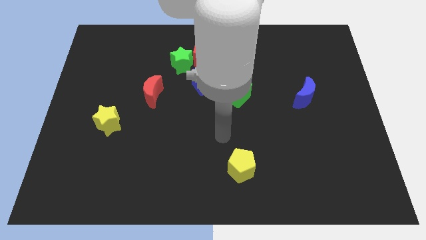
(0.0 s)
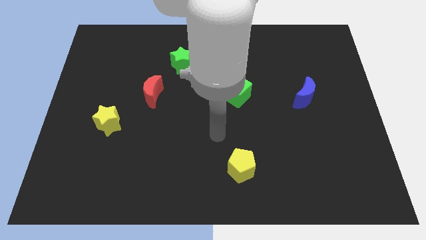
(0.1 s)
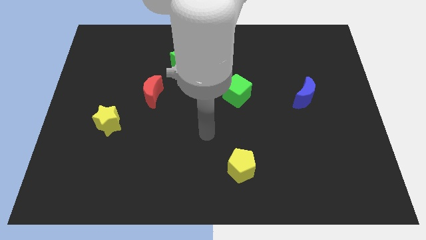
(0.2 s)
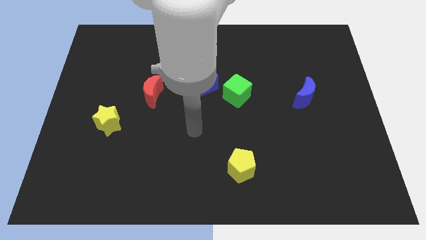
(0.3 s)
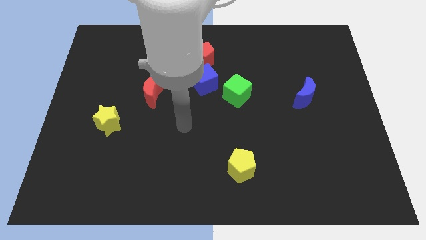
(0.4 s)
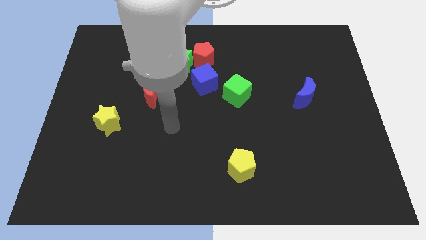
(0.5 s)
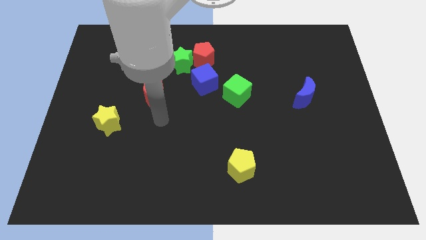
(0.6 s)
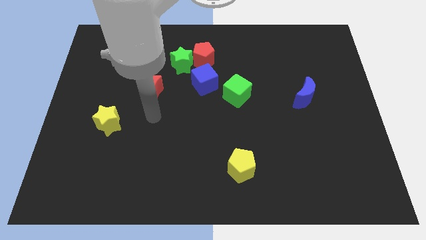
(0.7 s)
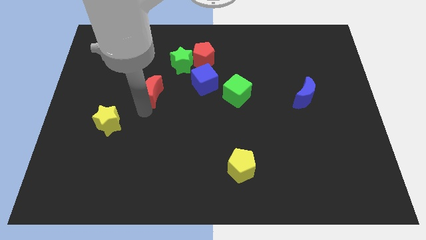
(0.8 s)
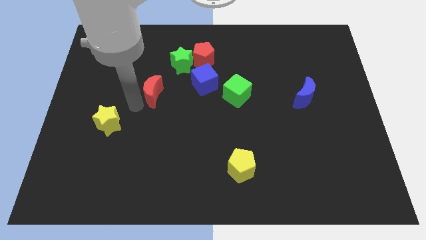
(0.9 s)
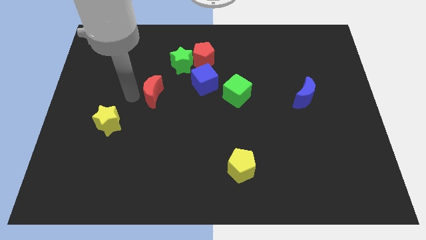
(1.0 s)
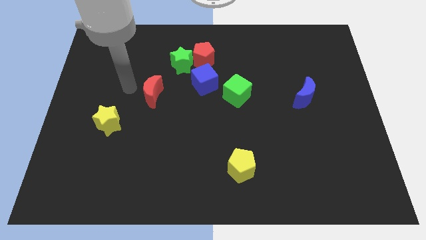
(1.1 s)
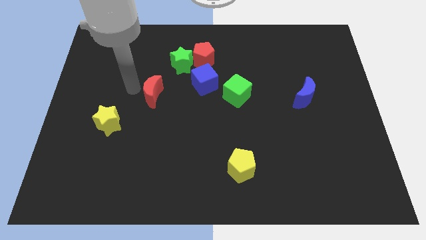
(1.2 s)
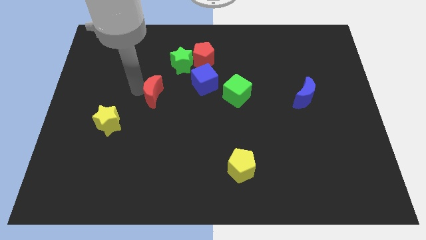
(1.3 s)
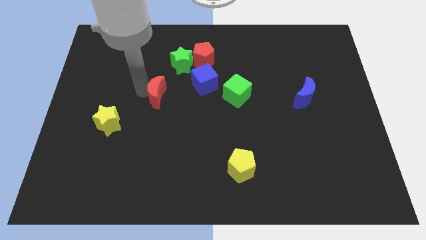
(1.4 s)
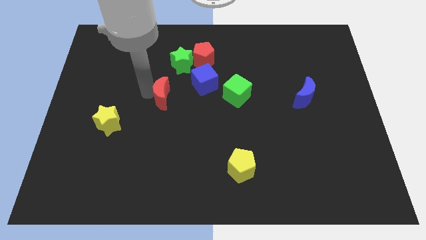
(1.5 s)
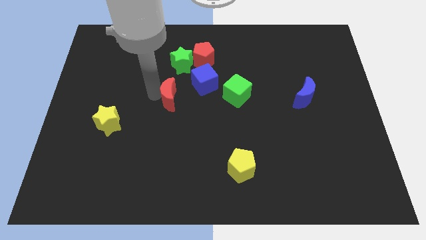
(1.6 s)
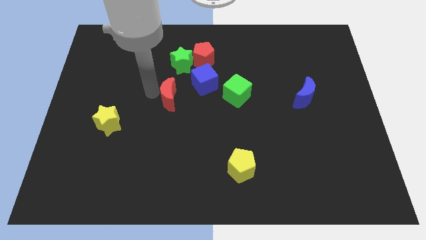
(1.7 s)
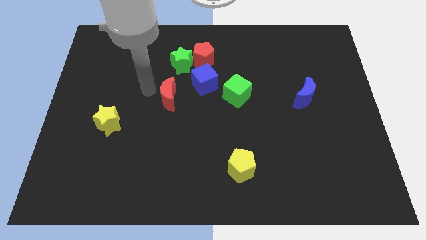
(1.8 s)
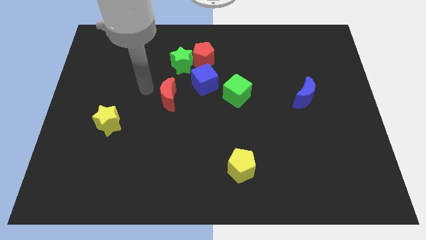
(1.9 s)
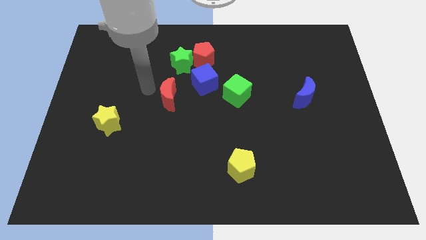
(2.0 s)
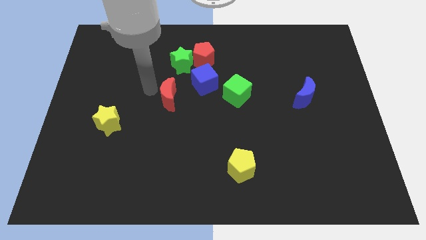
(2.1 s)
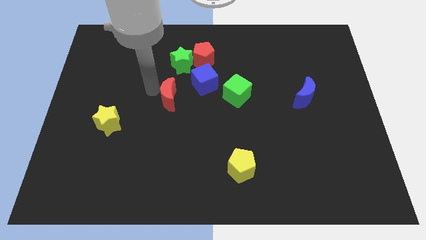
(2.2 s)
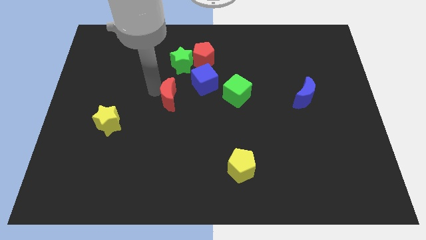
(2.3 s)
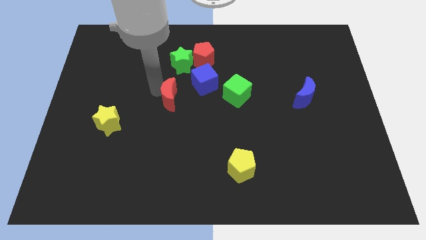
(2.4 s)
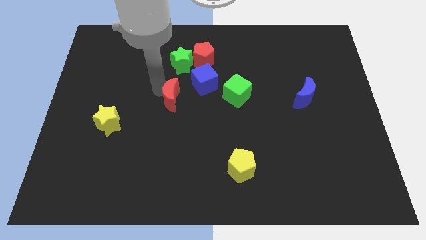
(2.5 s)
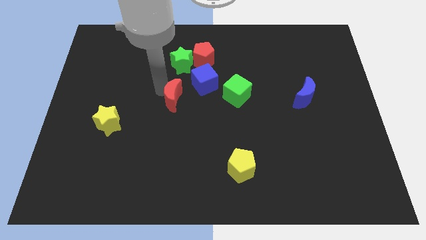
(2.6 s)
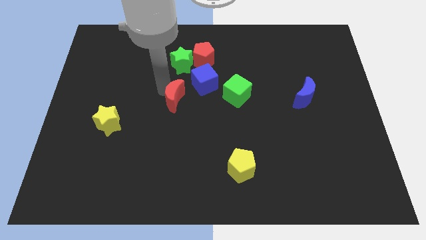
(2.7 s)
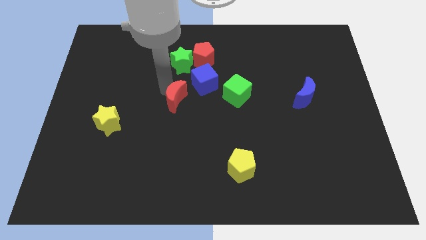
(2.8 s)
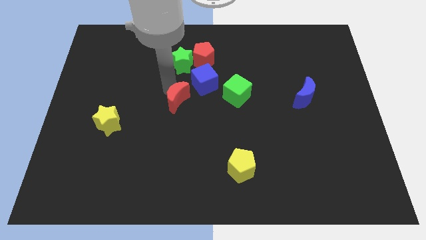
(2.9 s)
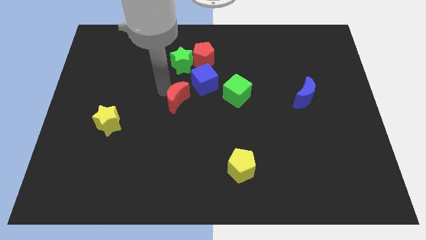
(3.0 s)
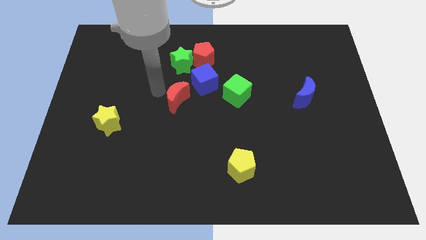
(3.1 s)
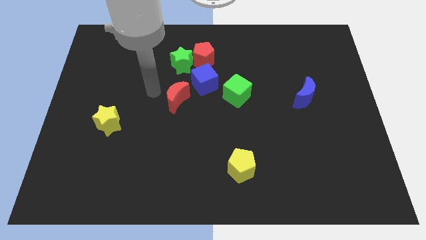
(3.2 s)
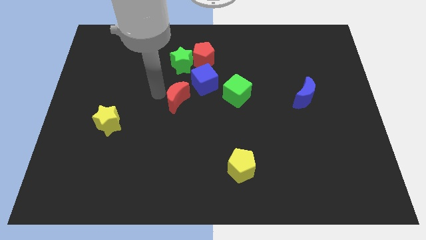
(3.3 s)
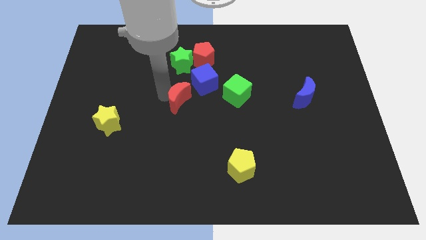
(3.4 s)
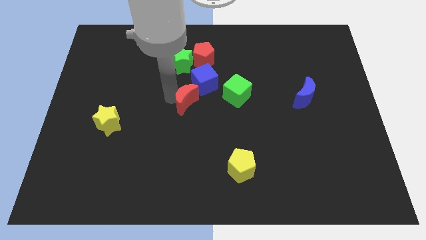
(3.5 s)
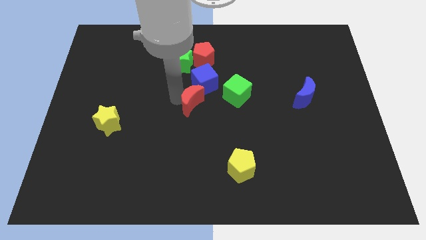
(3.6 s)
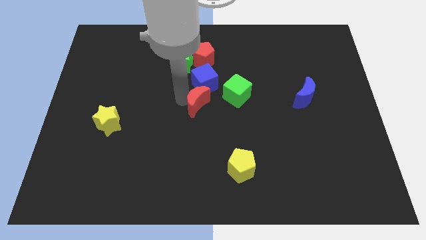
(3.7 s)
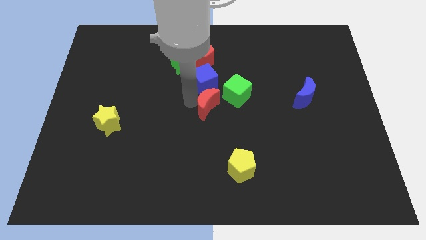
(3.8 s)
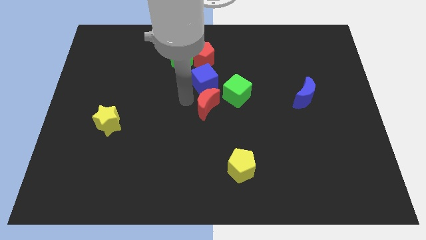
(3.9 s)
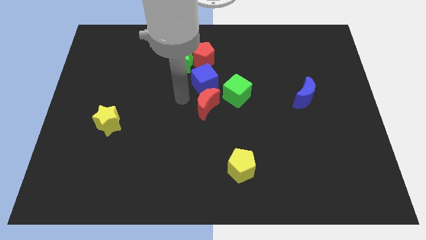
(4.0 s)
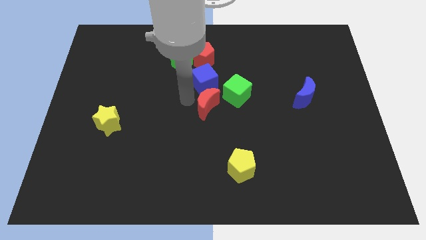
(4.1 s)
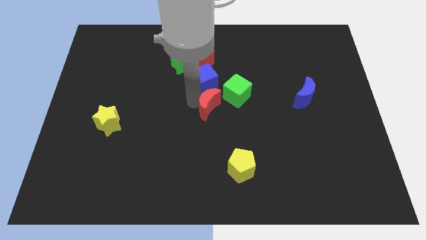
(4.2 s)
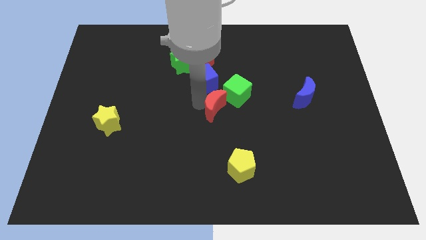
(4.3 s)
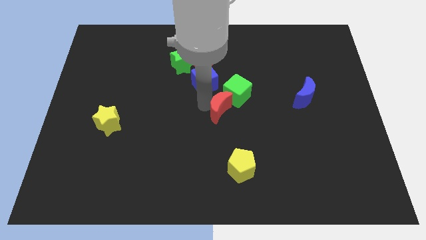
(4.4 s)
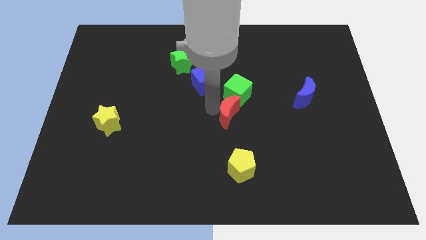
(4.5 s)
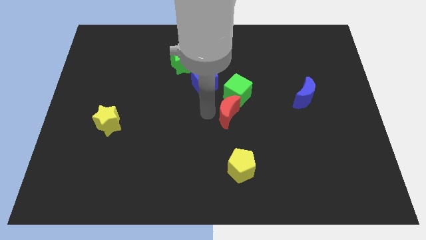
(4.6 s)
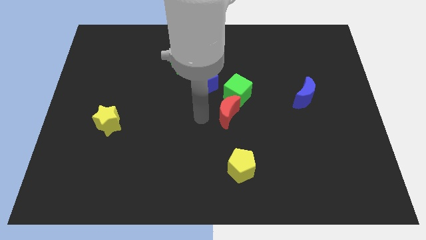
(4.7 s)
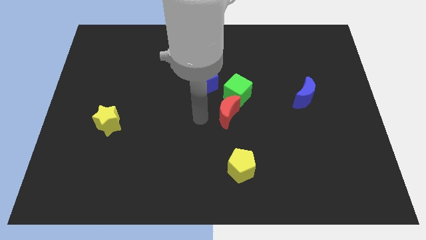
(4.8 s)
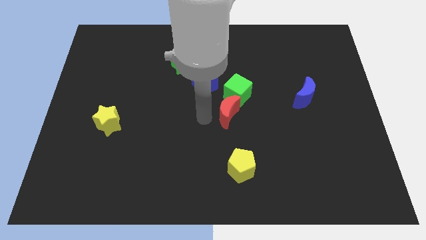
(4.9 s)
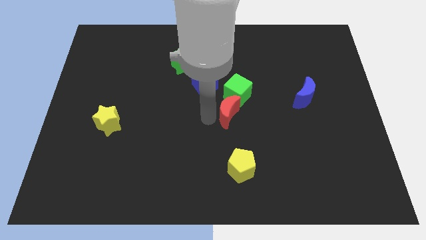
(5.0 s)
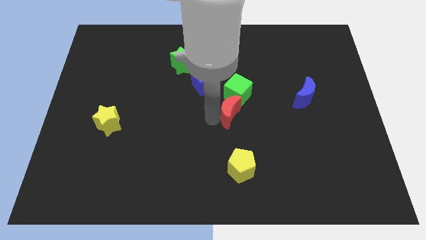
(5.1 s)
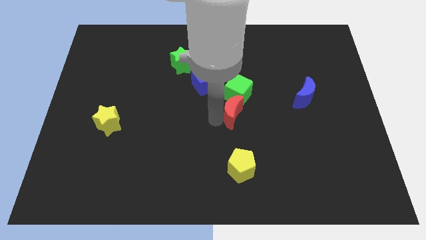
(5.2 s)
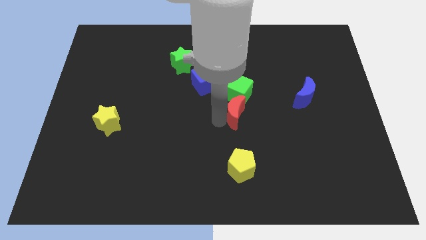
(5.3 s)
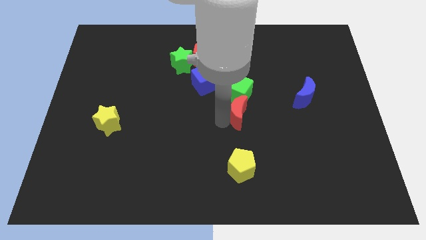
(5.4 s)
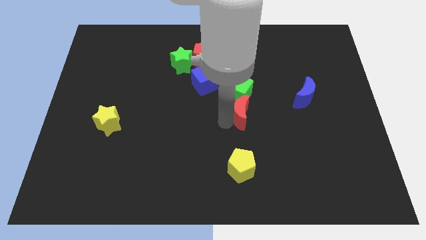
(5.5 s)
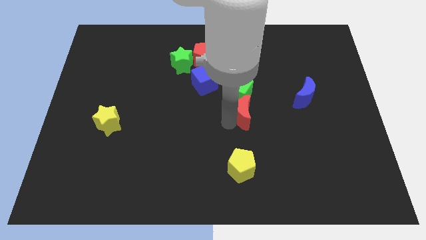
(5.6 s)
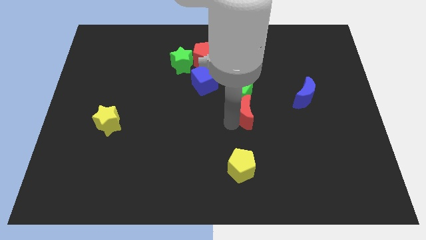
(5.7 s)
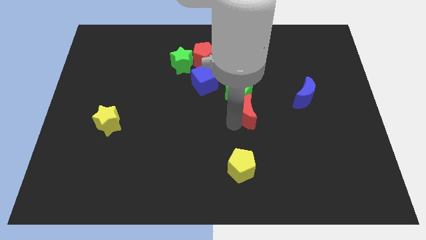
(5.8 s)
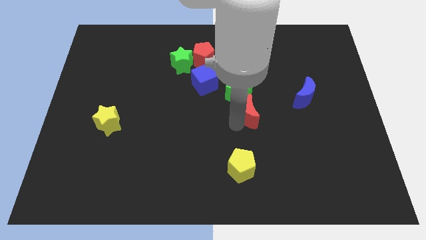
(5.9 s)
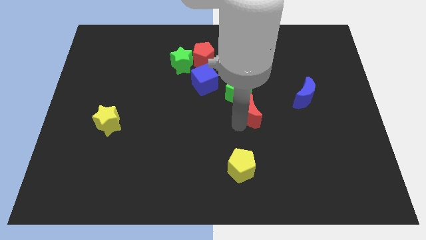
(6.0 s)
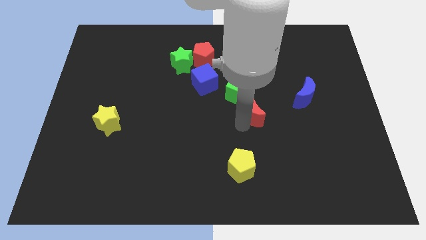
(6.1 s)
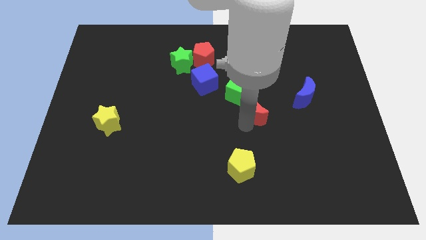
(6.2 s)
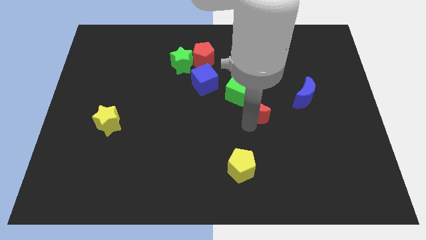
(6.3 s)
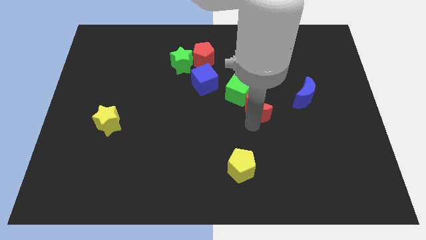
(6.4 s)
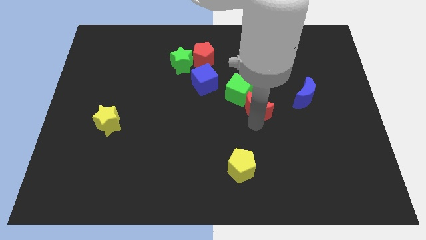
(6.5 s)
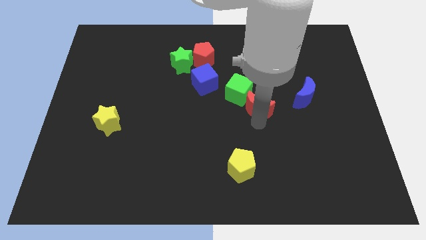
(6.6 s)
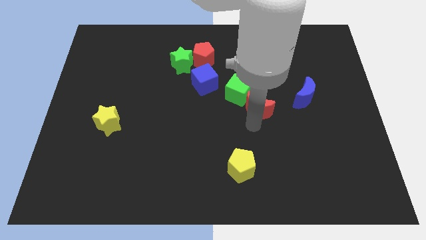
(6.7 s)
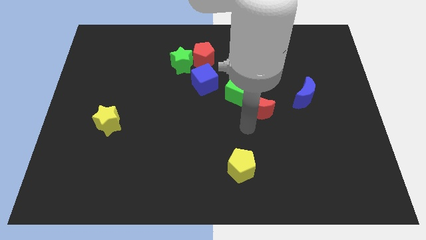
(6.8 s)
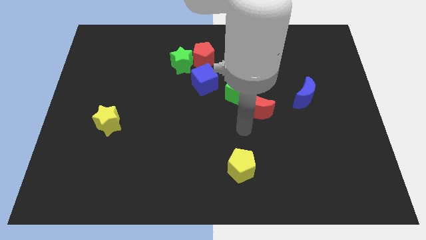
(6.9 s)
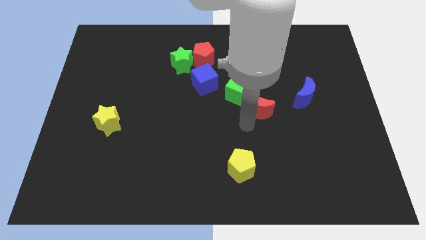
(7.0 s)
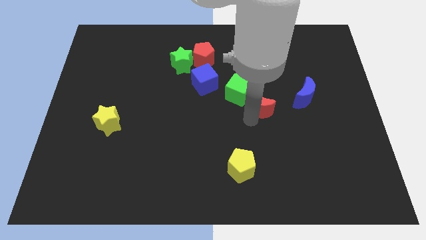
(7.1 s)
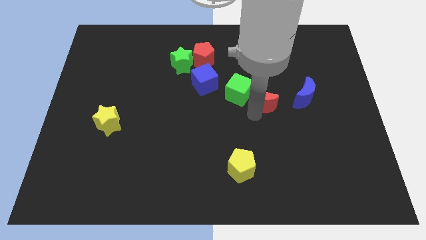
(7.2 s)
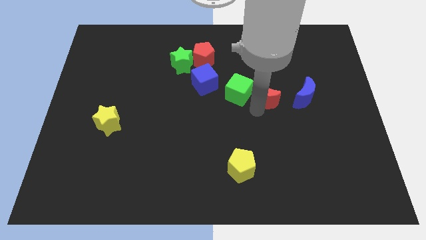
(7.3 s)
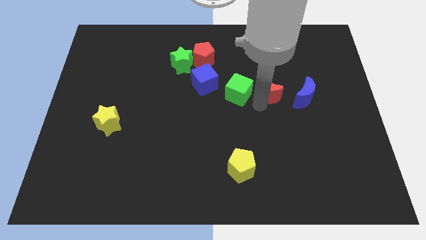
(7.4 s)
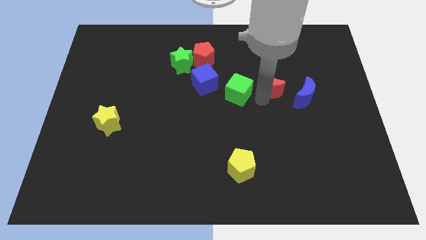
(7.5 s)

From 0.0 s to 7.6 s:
push the red moon to the top left side of the blue moon
